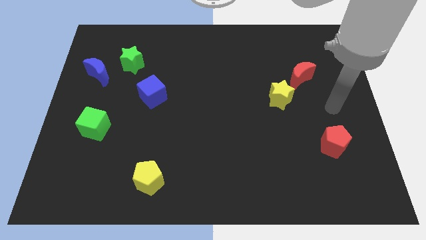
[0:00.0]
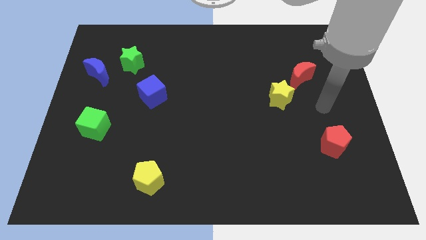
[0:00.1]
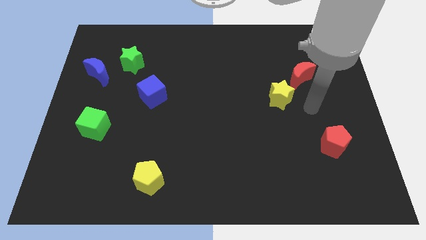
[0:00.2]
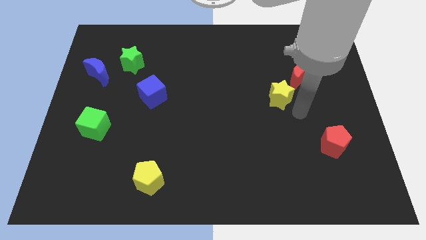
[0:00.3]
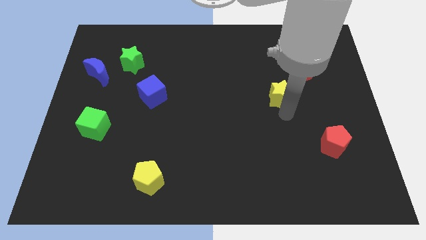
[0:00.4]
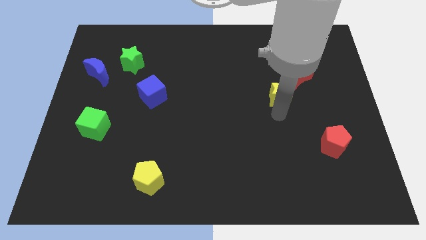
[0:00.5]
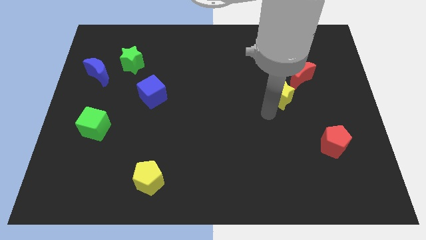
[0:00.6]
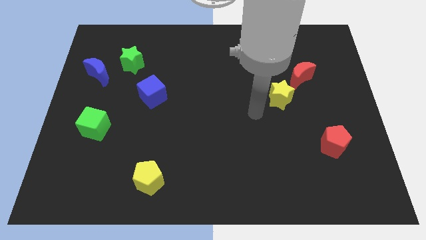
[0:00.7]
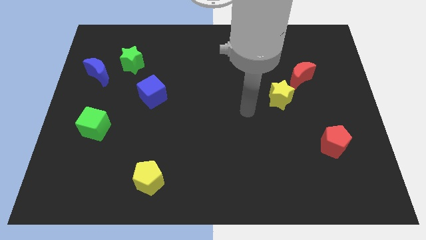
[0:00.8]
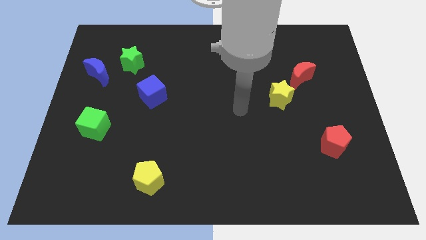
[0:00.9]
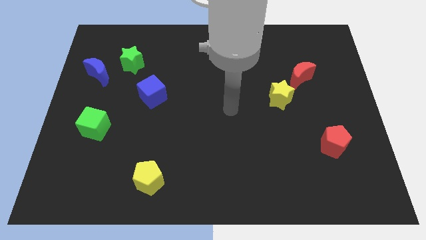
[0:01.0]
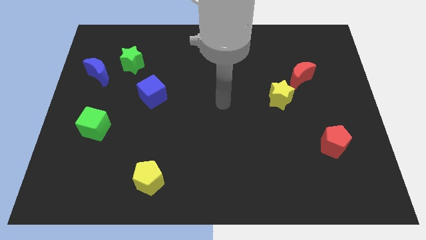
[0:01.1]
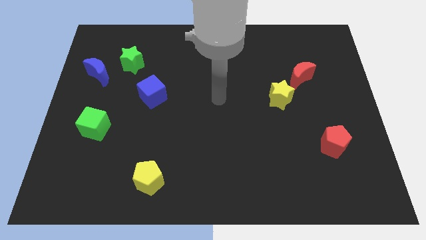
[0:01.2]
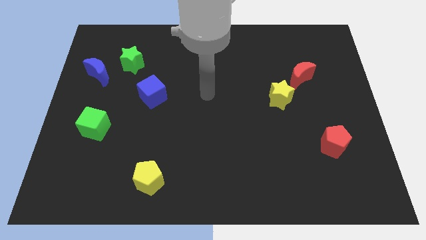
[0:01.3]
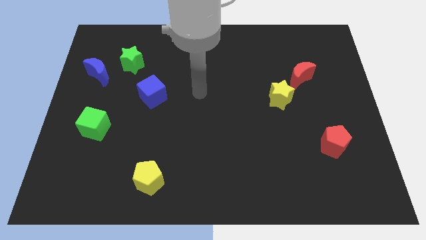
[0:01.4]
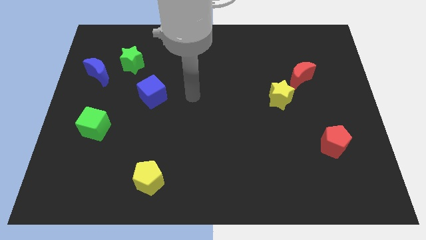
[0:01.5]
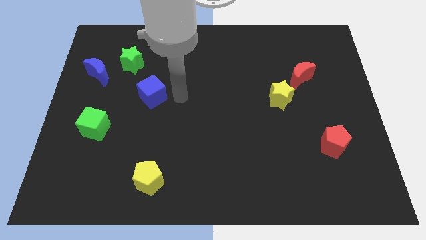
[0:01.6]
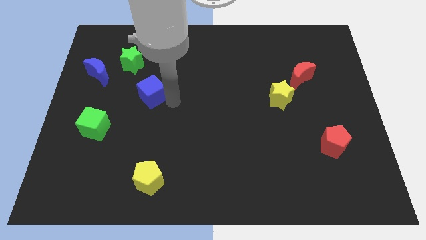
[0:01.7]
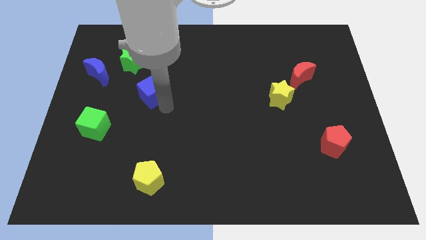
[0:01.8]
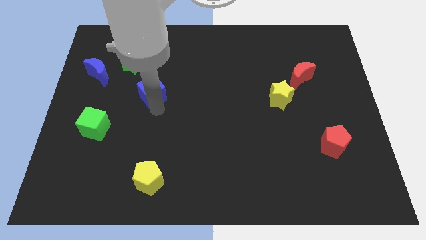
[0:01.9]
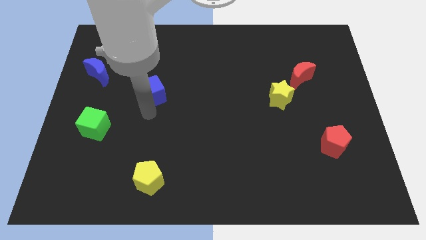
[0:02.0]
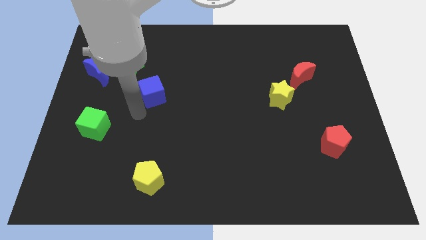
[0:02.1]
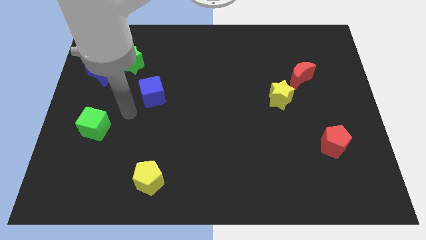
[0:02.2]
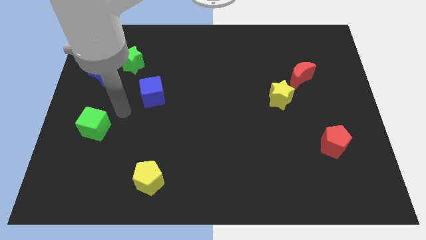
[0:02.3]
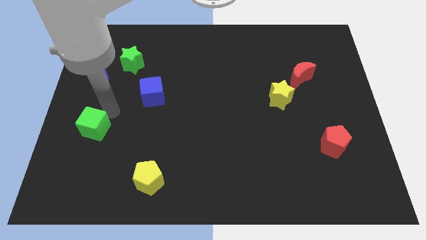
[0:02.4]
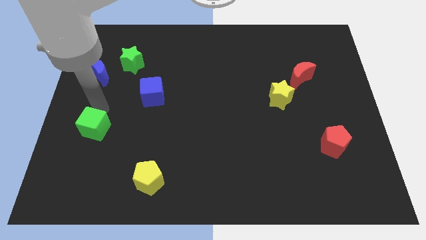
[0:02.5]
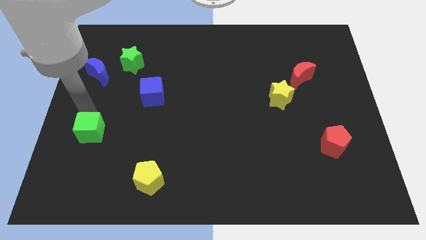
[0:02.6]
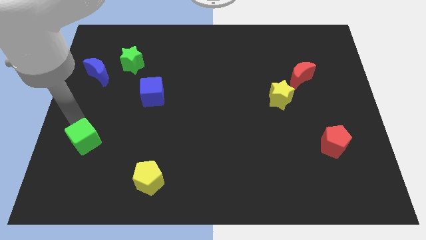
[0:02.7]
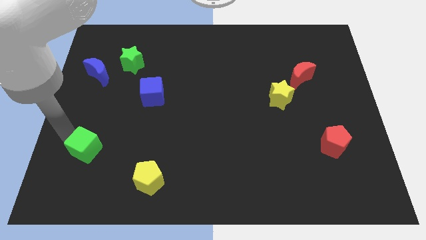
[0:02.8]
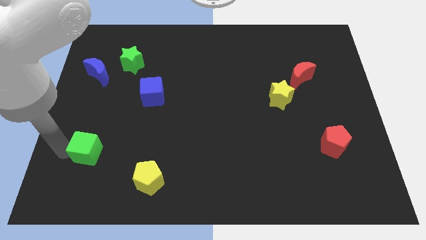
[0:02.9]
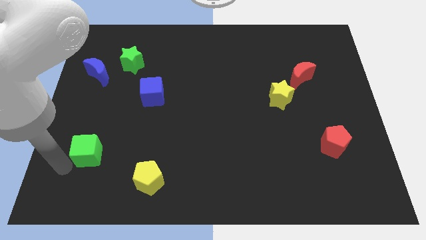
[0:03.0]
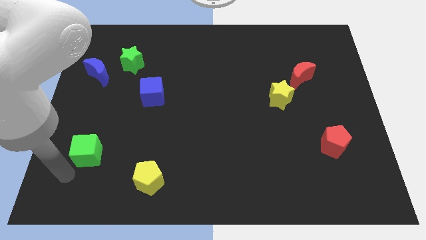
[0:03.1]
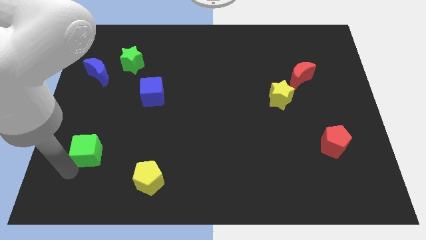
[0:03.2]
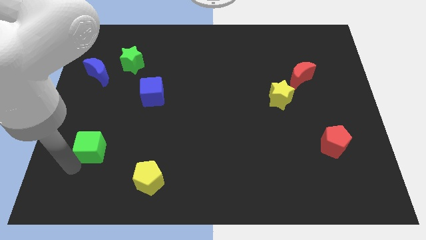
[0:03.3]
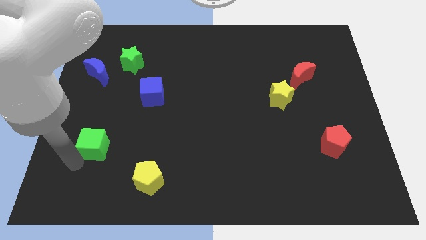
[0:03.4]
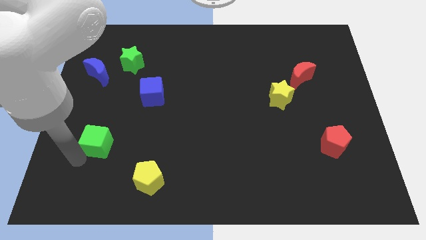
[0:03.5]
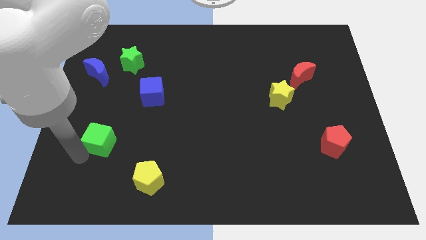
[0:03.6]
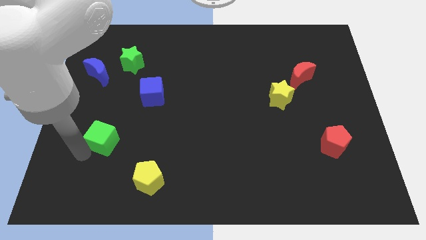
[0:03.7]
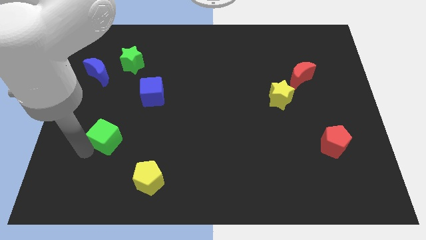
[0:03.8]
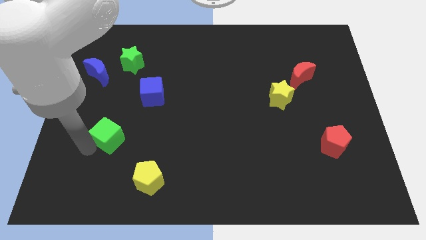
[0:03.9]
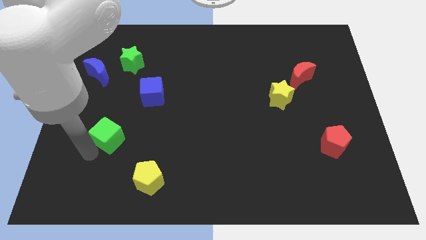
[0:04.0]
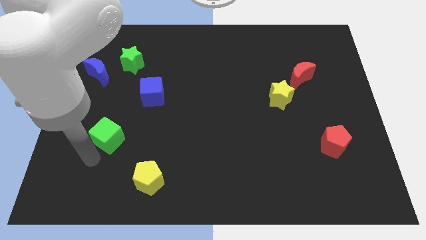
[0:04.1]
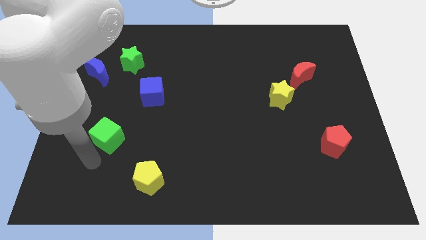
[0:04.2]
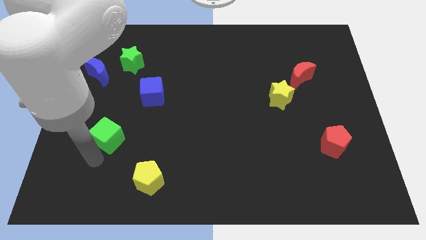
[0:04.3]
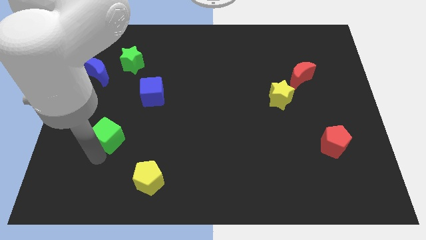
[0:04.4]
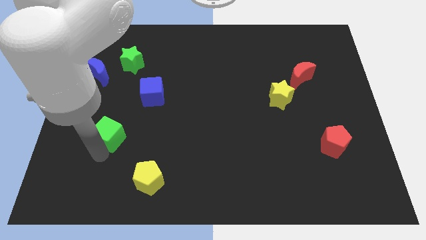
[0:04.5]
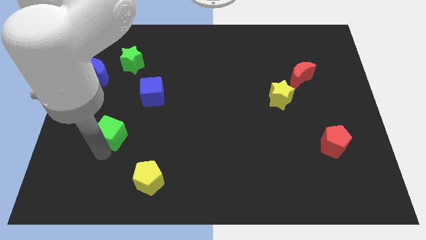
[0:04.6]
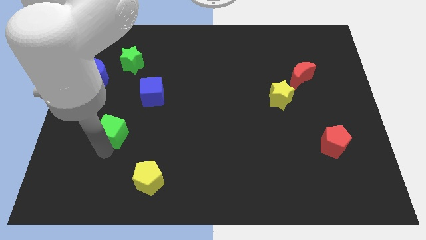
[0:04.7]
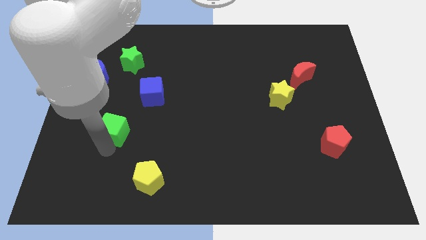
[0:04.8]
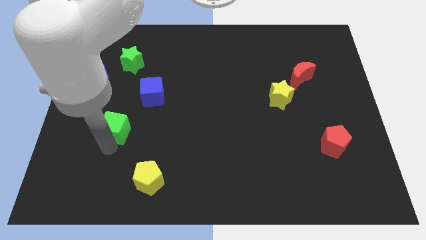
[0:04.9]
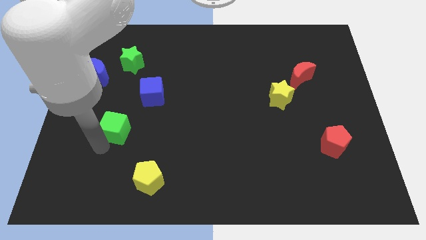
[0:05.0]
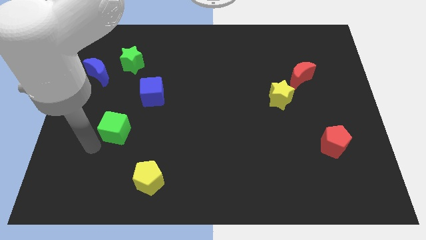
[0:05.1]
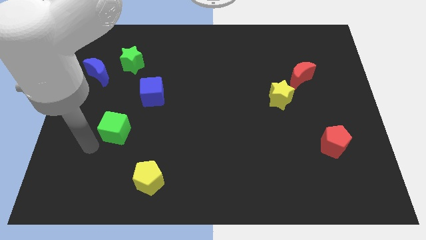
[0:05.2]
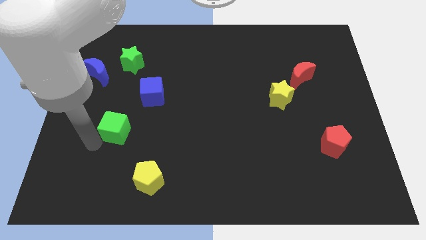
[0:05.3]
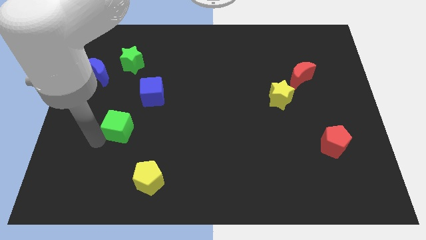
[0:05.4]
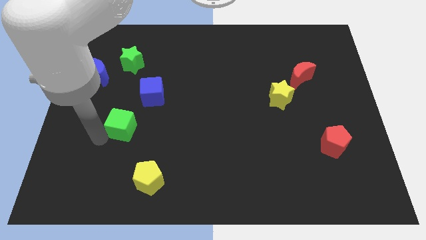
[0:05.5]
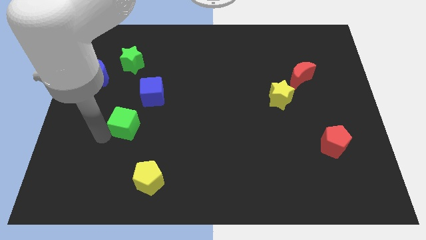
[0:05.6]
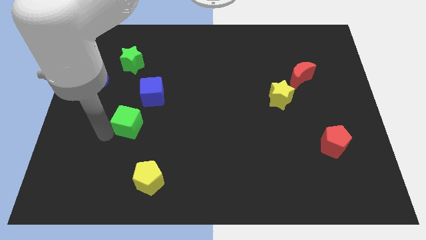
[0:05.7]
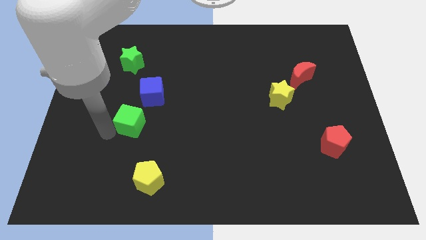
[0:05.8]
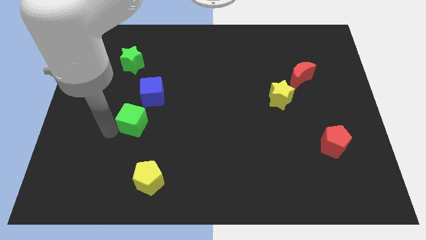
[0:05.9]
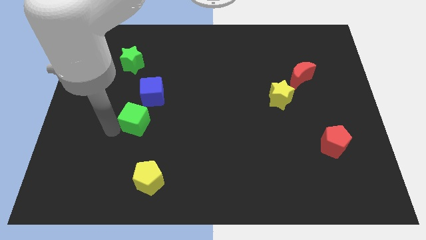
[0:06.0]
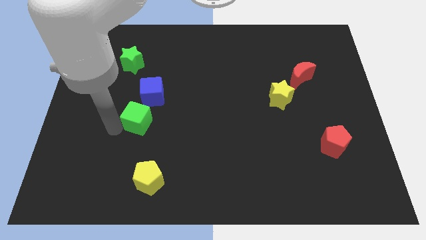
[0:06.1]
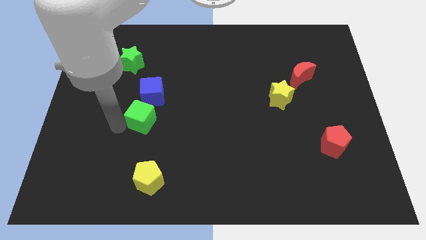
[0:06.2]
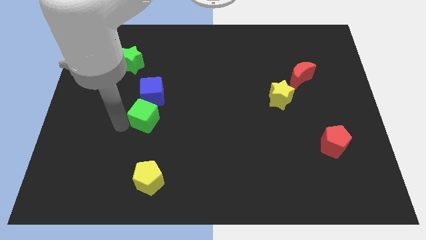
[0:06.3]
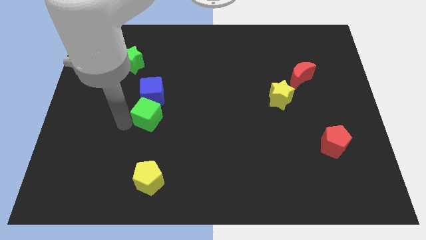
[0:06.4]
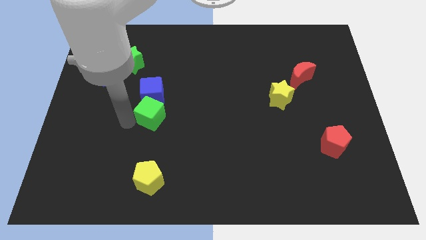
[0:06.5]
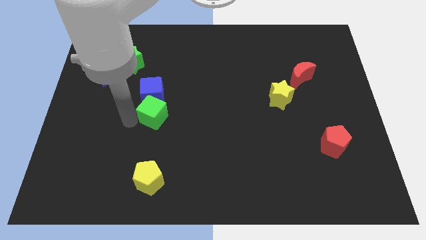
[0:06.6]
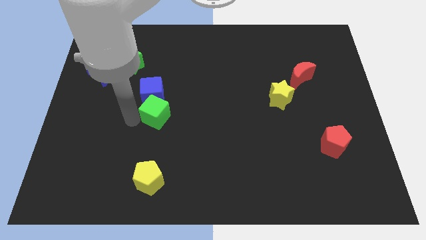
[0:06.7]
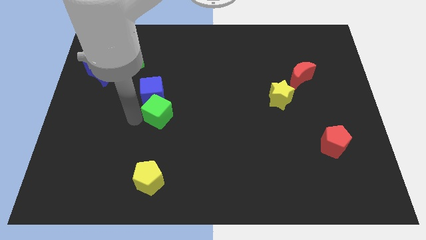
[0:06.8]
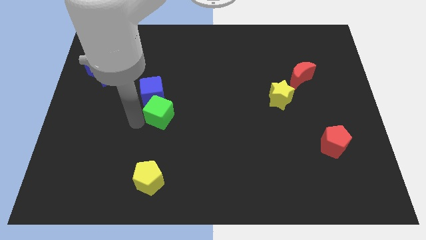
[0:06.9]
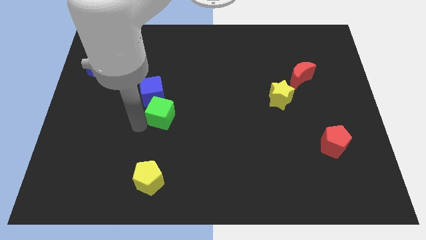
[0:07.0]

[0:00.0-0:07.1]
push the green cube to the center of the board
